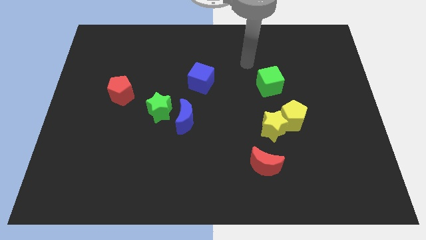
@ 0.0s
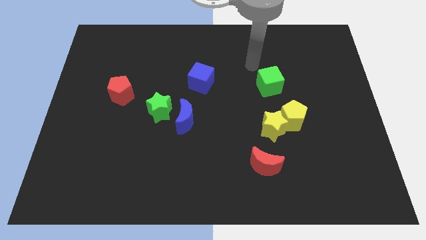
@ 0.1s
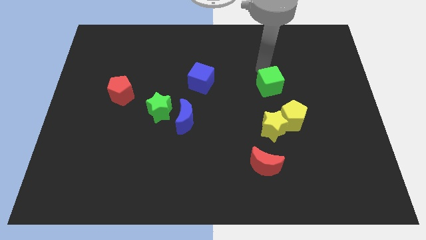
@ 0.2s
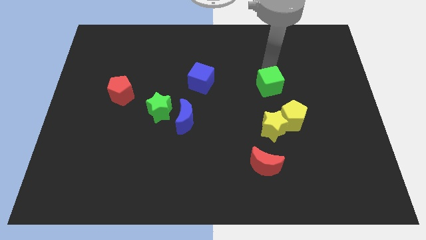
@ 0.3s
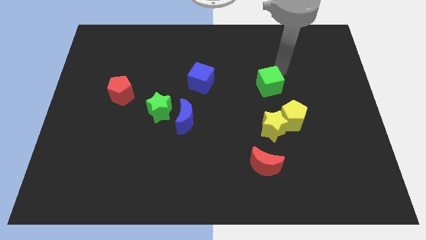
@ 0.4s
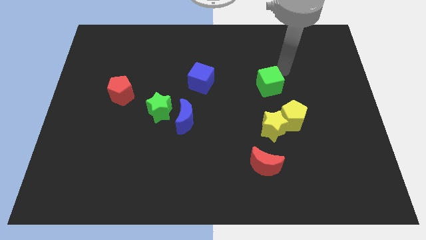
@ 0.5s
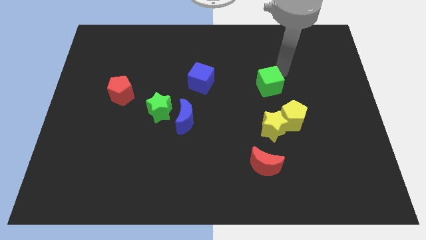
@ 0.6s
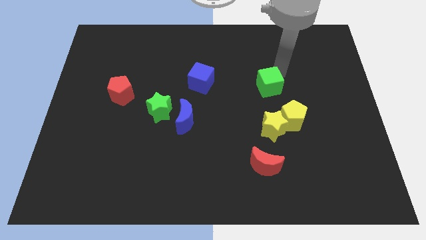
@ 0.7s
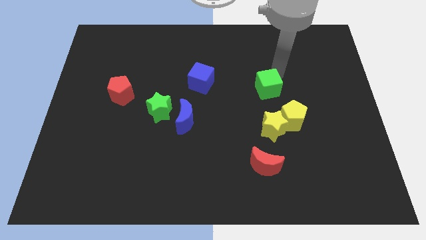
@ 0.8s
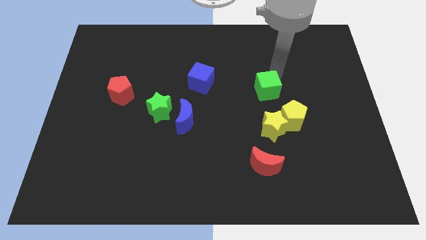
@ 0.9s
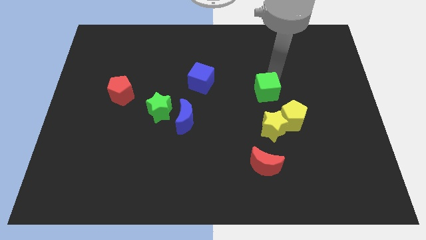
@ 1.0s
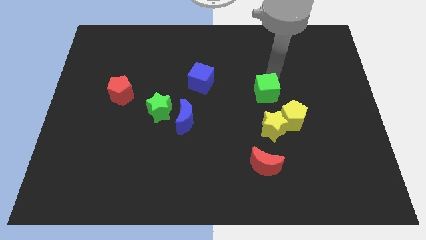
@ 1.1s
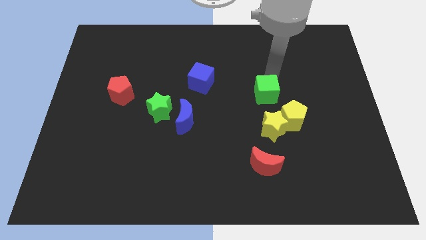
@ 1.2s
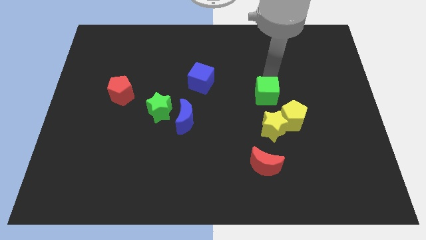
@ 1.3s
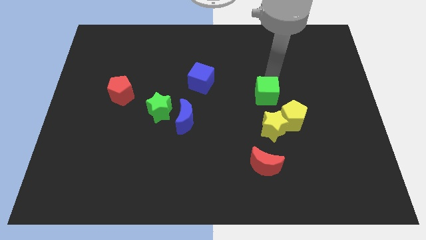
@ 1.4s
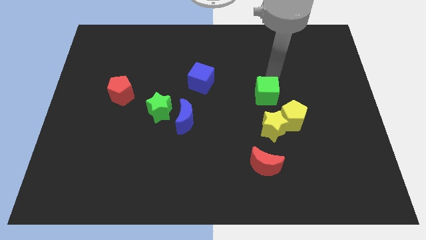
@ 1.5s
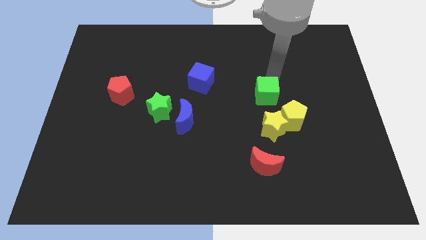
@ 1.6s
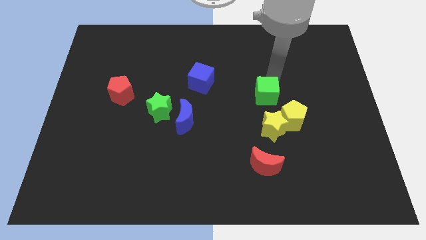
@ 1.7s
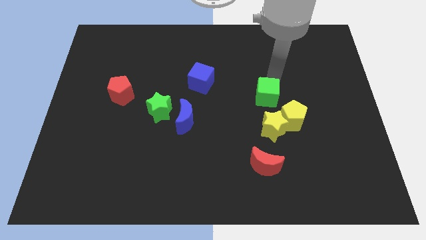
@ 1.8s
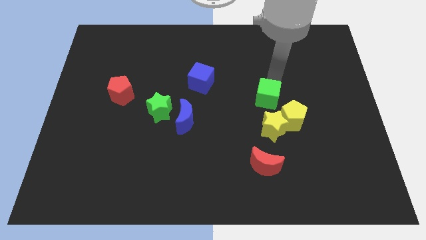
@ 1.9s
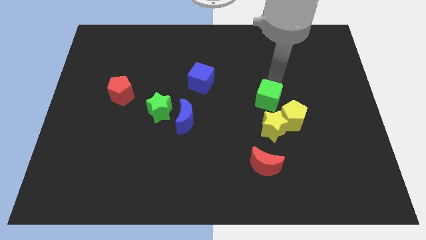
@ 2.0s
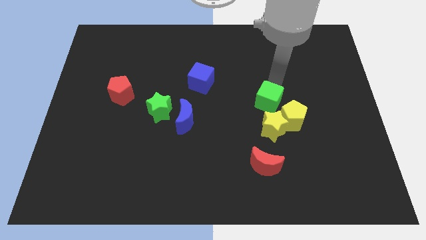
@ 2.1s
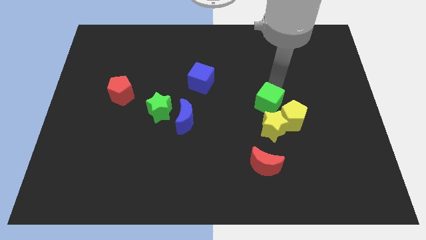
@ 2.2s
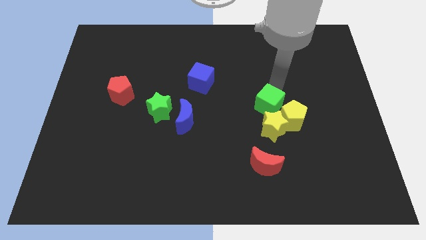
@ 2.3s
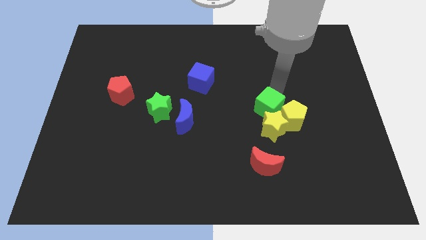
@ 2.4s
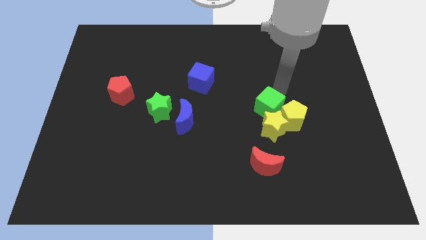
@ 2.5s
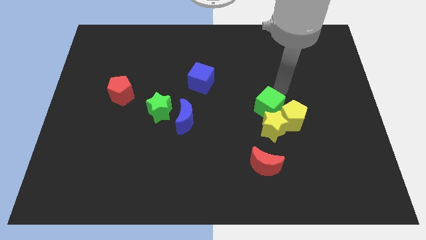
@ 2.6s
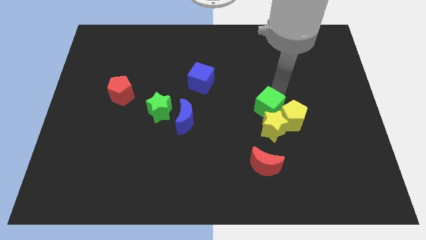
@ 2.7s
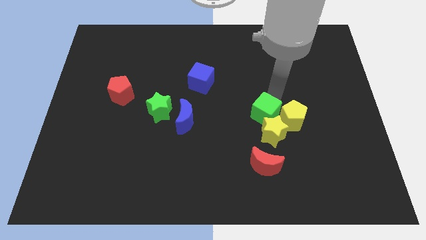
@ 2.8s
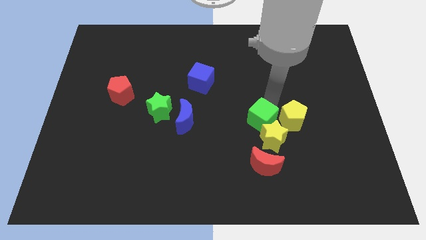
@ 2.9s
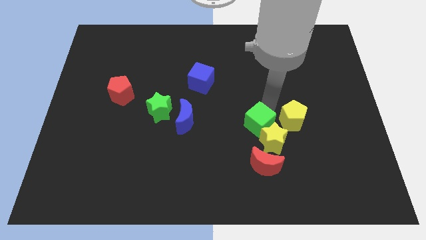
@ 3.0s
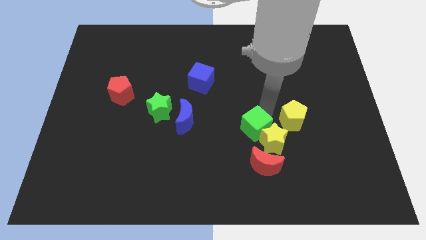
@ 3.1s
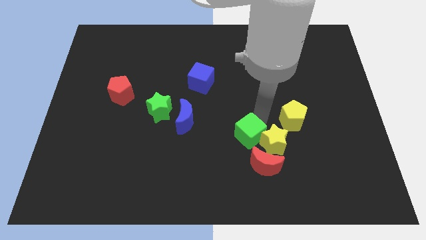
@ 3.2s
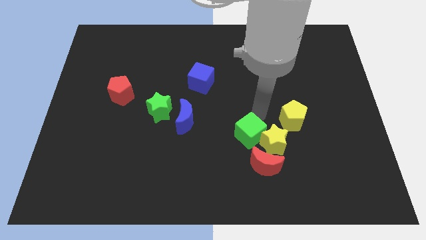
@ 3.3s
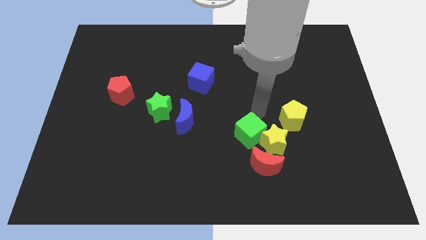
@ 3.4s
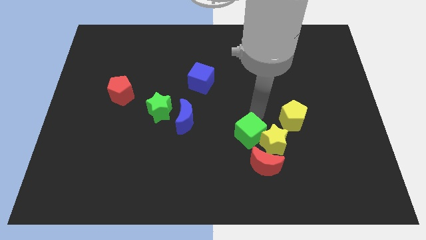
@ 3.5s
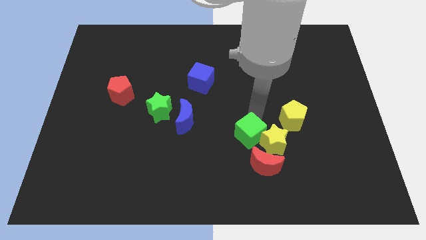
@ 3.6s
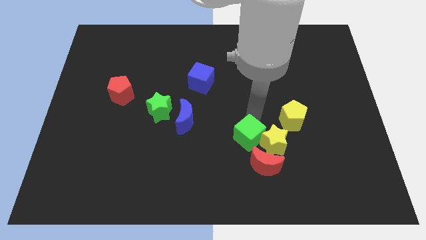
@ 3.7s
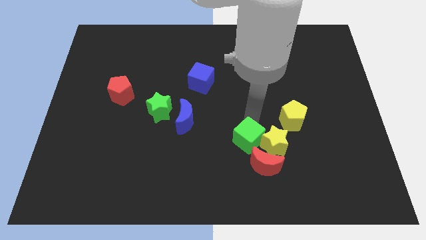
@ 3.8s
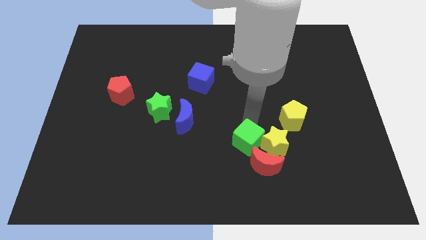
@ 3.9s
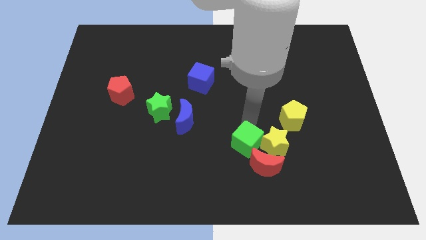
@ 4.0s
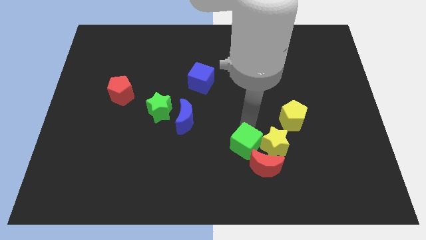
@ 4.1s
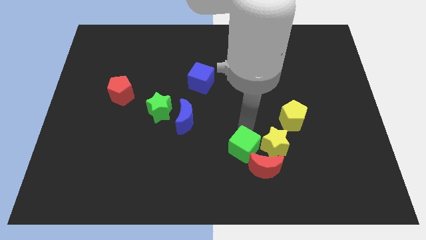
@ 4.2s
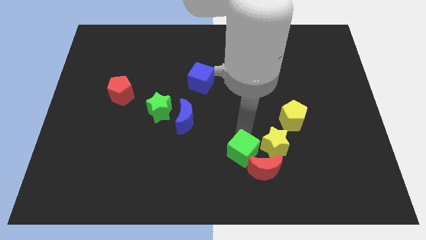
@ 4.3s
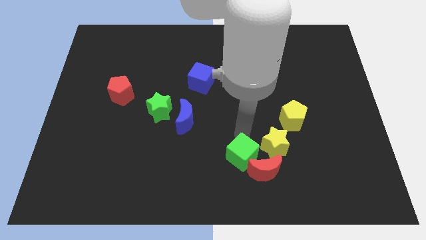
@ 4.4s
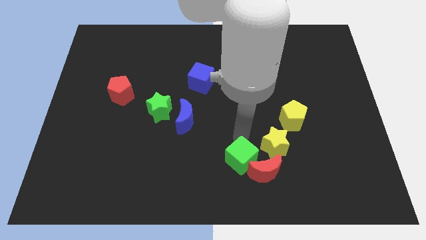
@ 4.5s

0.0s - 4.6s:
move the green cube to the bottom

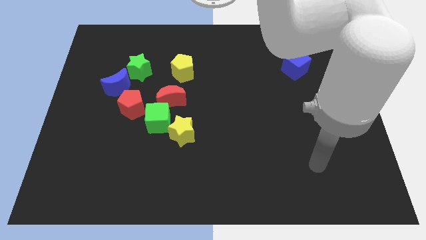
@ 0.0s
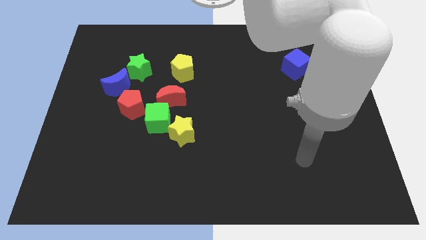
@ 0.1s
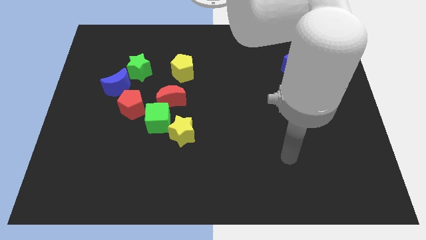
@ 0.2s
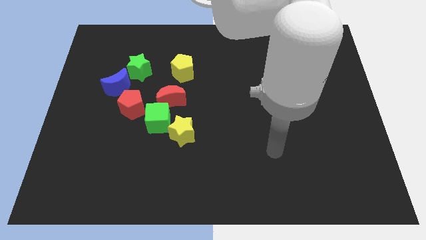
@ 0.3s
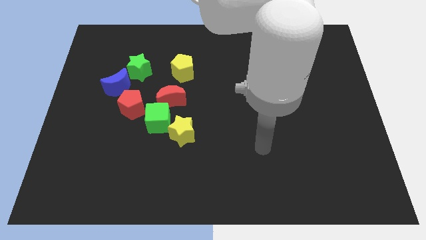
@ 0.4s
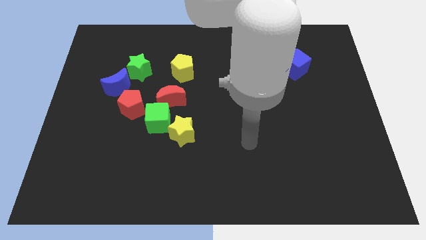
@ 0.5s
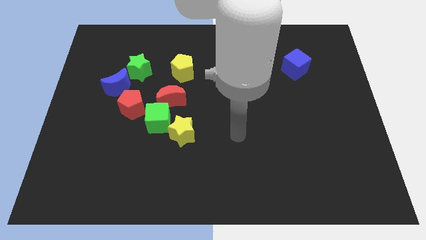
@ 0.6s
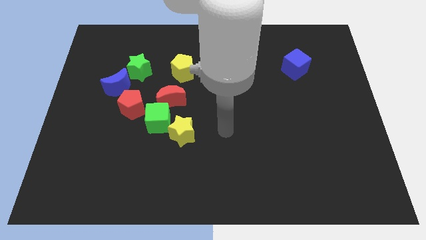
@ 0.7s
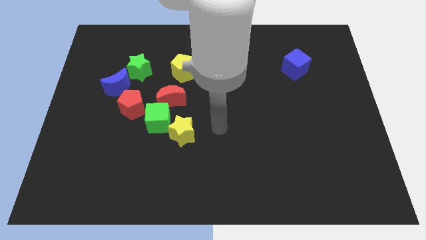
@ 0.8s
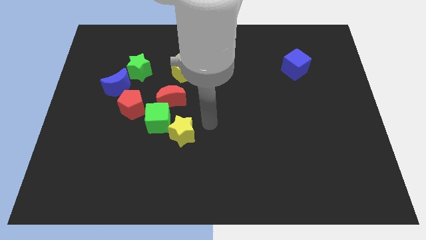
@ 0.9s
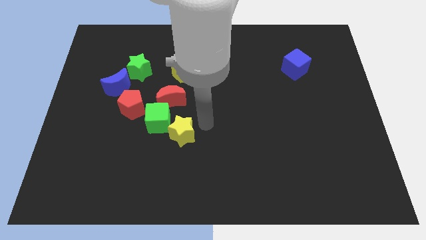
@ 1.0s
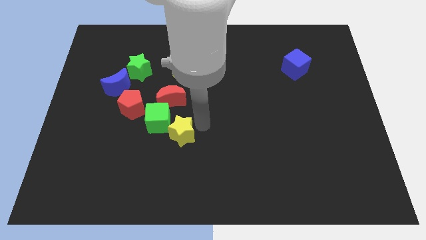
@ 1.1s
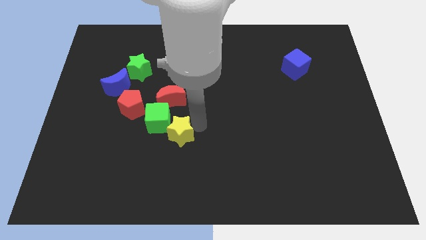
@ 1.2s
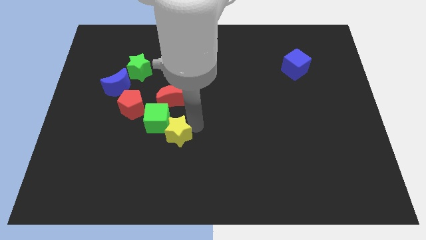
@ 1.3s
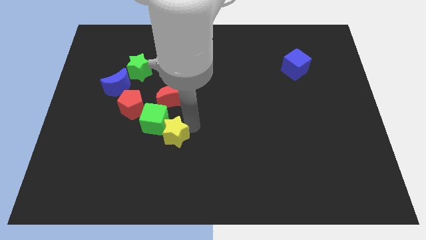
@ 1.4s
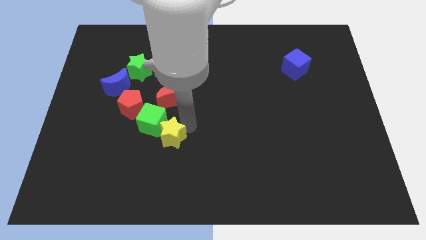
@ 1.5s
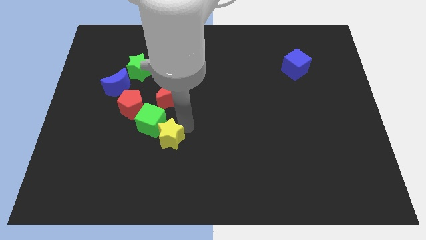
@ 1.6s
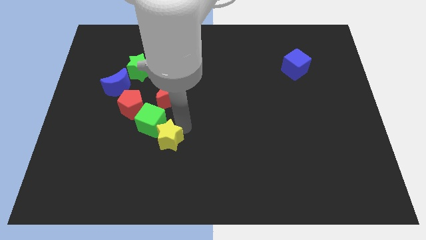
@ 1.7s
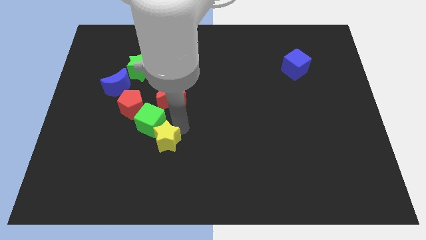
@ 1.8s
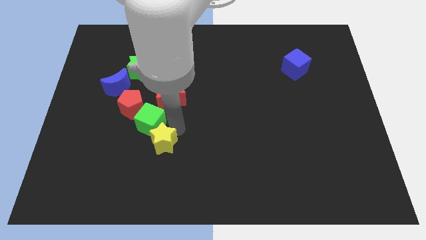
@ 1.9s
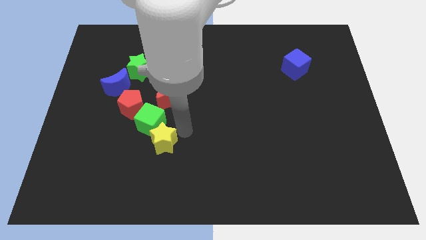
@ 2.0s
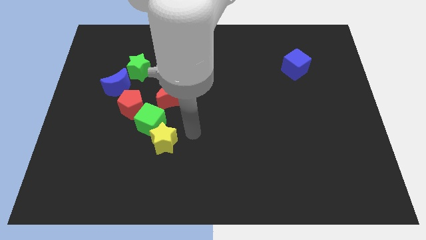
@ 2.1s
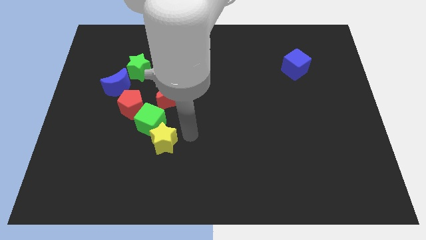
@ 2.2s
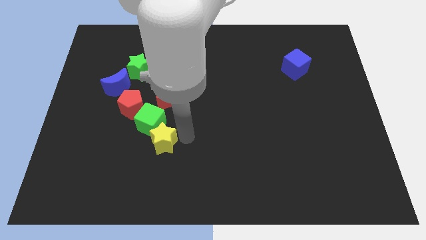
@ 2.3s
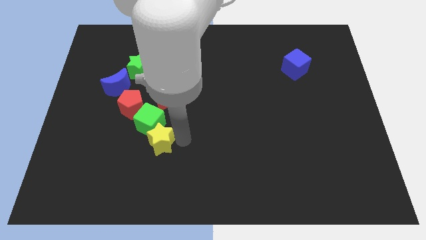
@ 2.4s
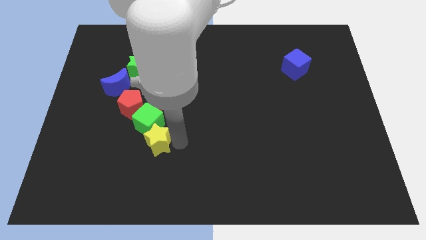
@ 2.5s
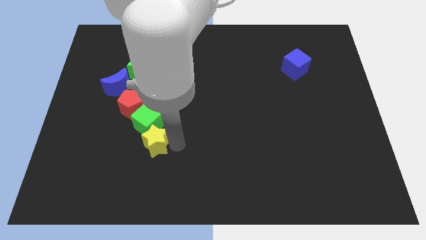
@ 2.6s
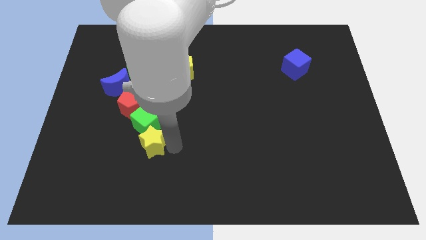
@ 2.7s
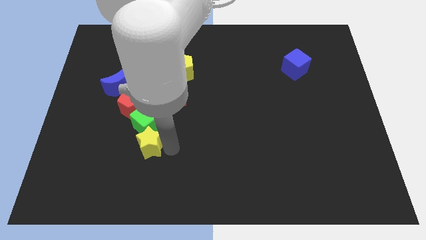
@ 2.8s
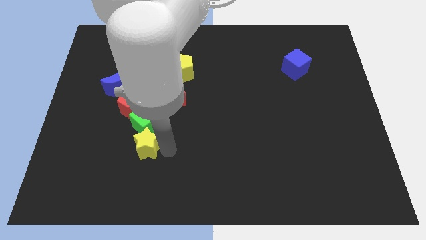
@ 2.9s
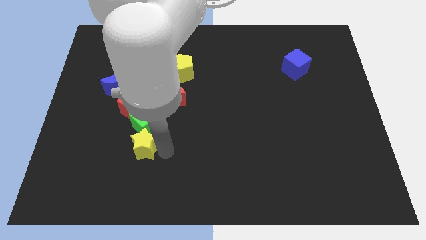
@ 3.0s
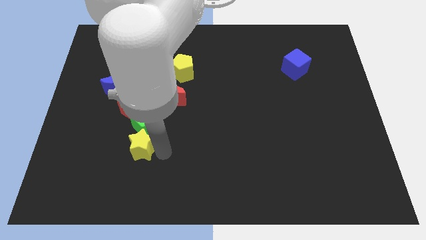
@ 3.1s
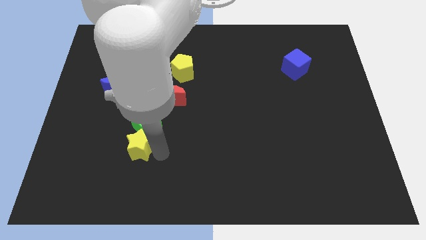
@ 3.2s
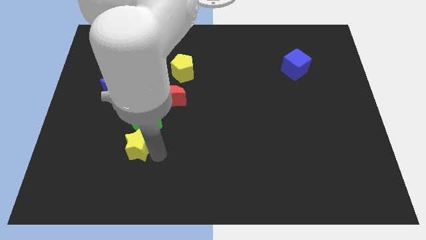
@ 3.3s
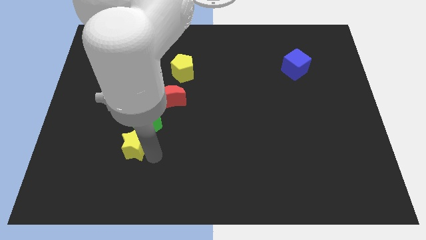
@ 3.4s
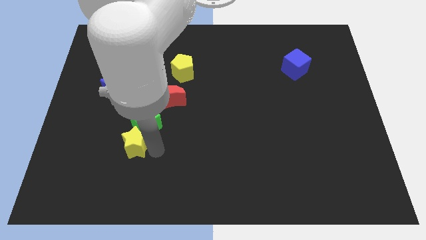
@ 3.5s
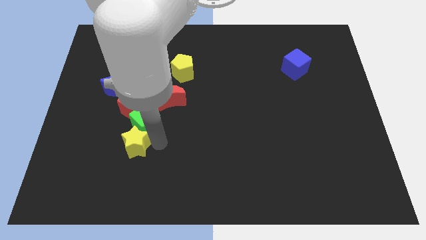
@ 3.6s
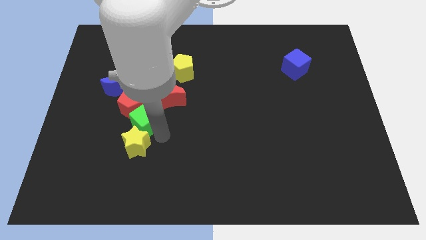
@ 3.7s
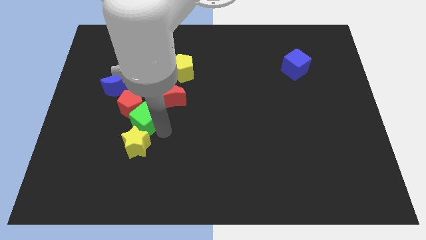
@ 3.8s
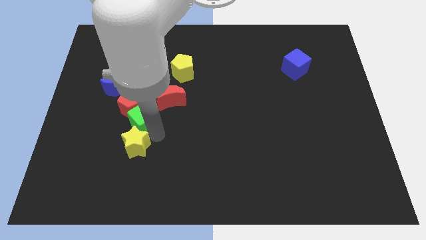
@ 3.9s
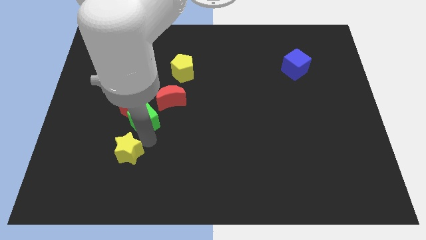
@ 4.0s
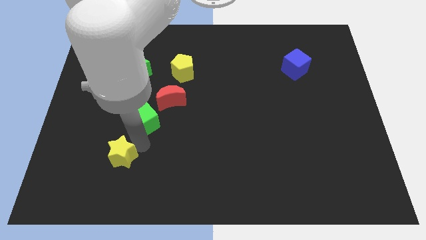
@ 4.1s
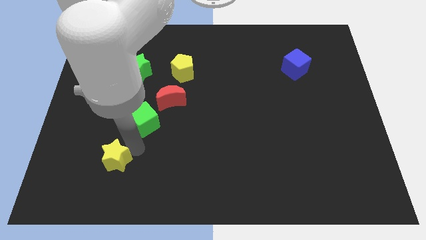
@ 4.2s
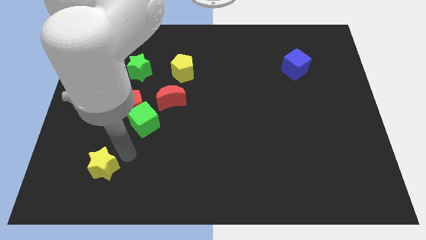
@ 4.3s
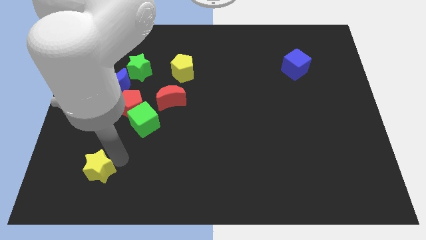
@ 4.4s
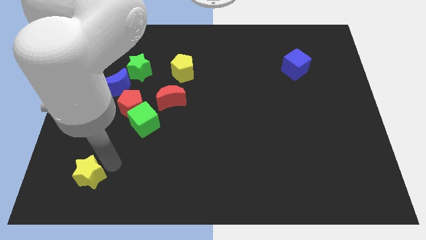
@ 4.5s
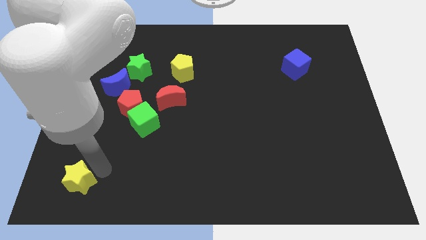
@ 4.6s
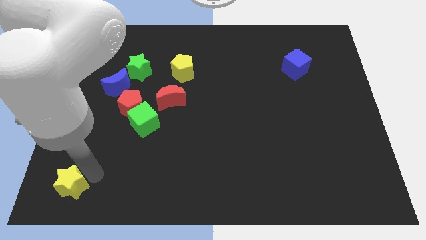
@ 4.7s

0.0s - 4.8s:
push the yellow star to the bottom left of the board
